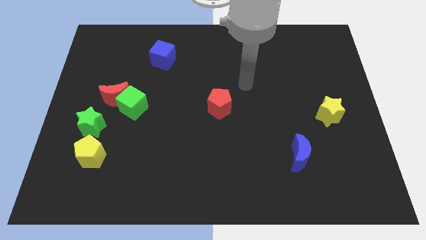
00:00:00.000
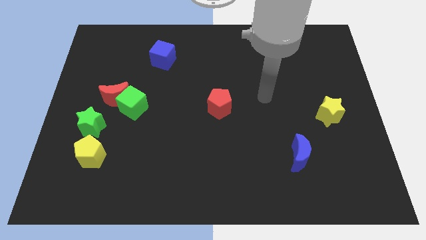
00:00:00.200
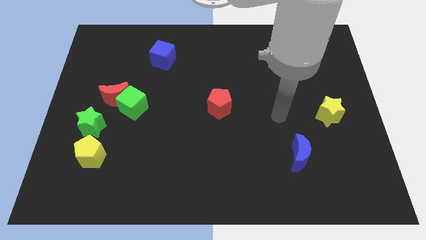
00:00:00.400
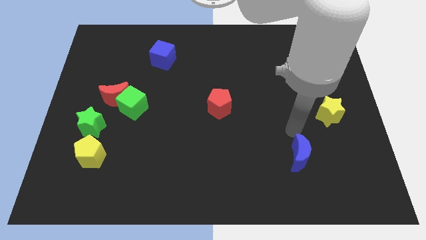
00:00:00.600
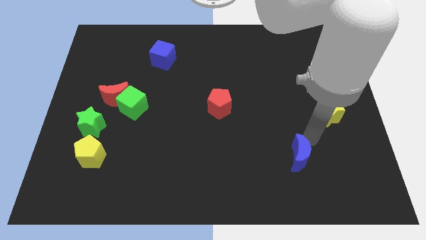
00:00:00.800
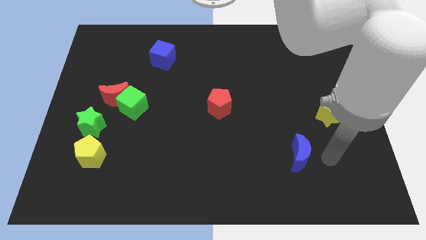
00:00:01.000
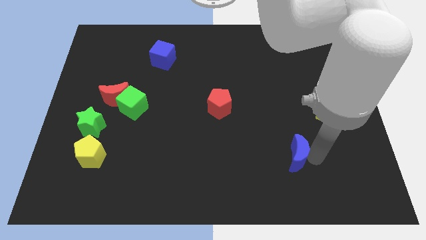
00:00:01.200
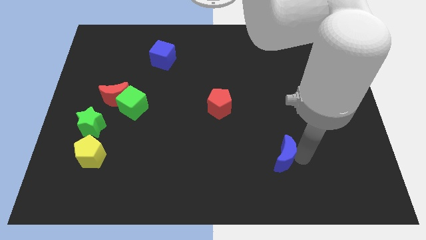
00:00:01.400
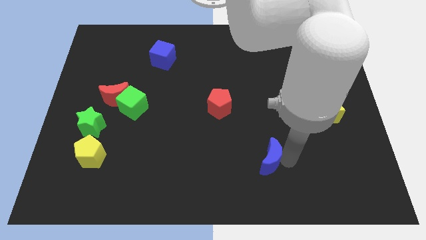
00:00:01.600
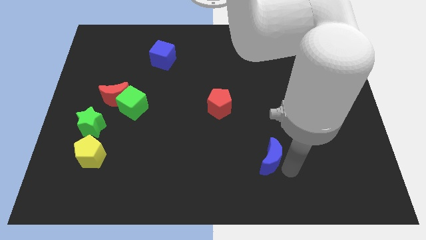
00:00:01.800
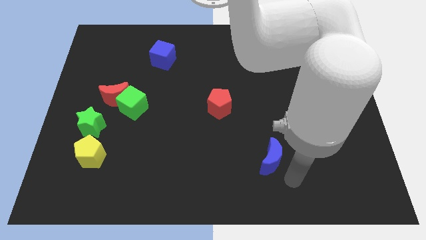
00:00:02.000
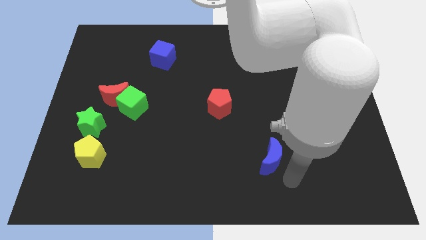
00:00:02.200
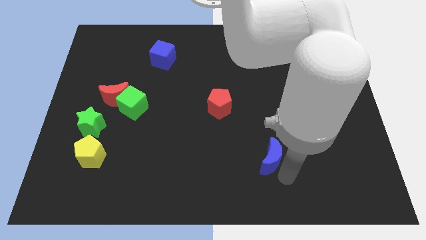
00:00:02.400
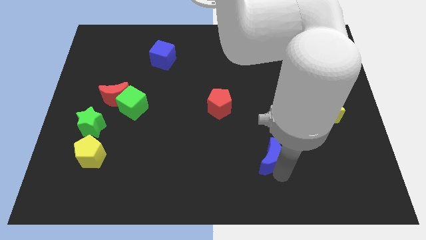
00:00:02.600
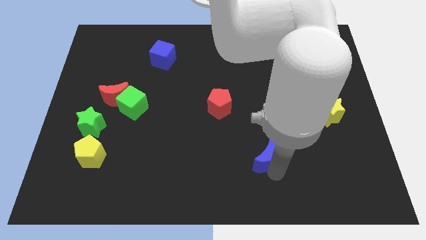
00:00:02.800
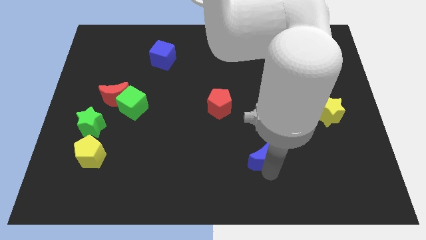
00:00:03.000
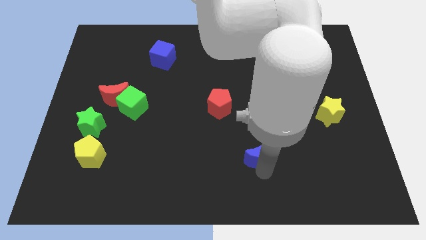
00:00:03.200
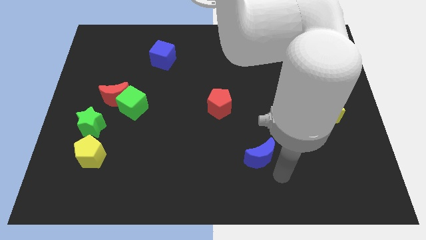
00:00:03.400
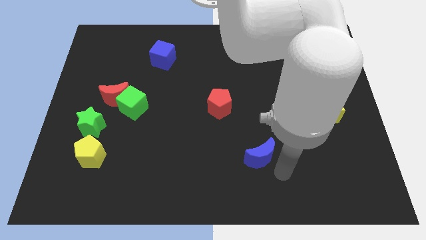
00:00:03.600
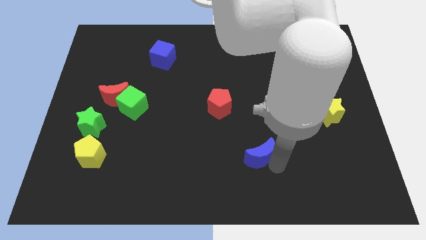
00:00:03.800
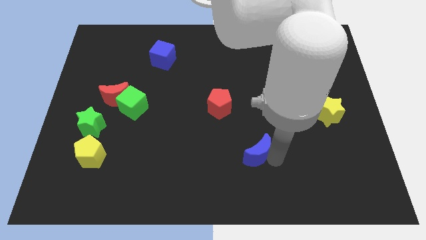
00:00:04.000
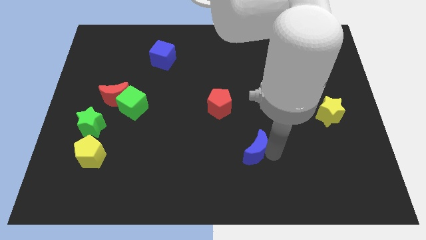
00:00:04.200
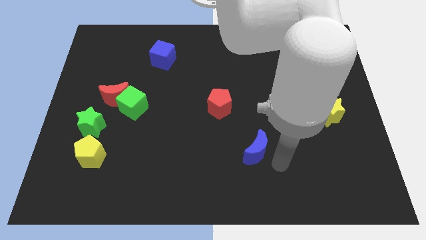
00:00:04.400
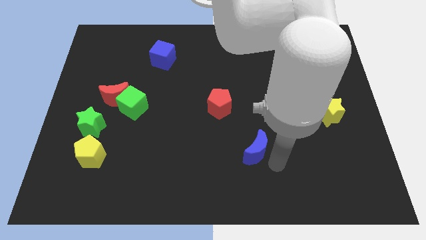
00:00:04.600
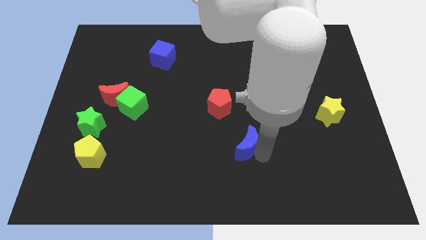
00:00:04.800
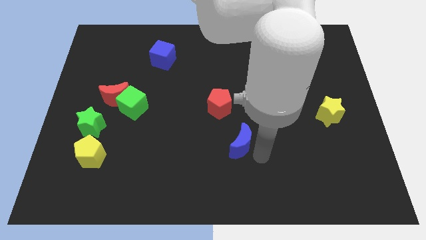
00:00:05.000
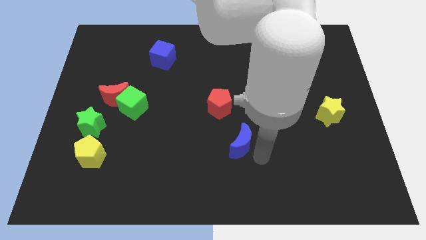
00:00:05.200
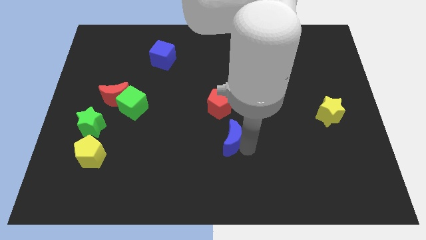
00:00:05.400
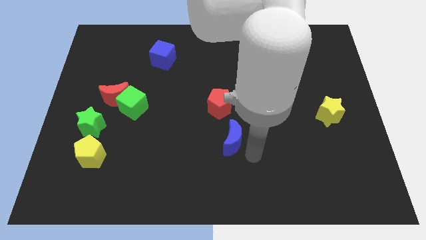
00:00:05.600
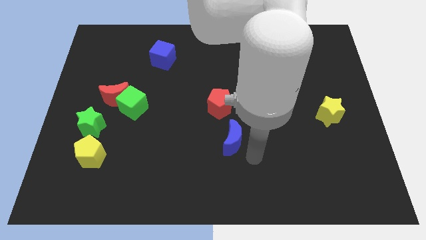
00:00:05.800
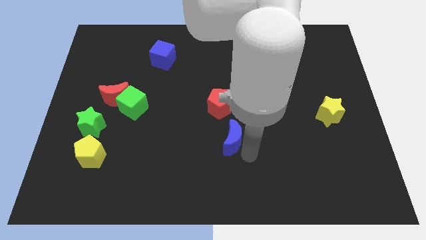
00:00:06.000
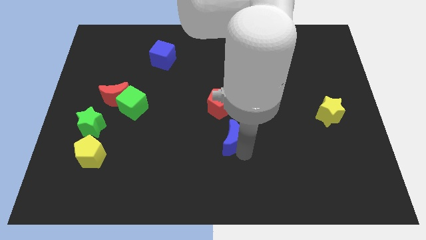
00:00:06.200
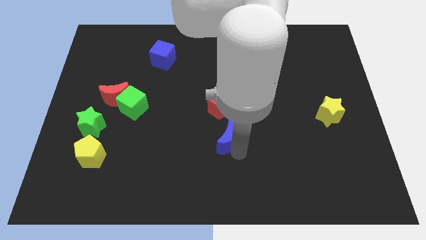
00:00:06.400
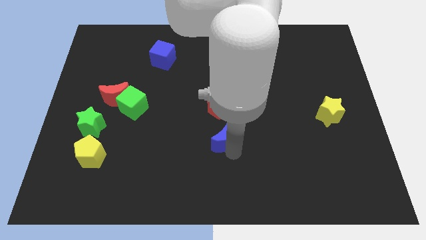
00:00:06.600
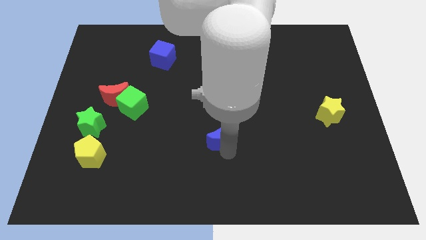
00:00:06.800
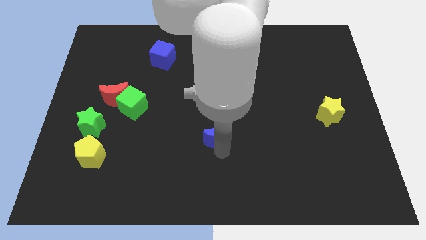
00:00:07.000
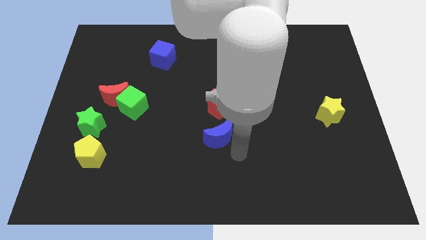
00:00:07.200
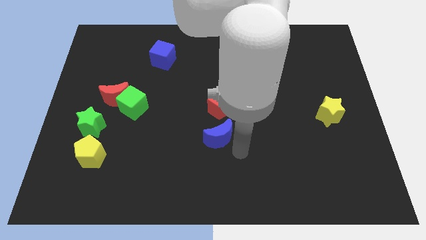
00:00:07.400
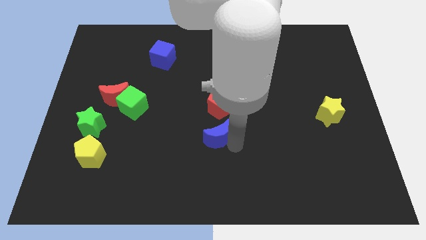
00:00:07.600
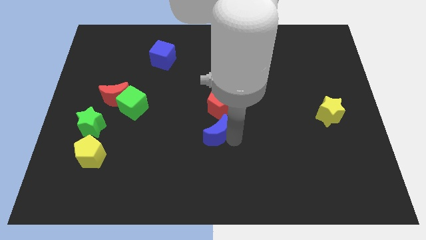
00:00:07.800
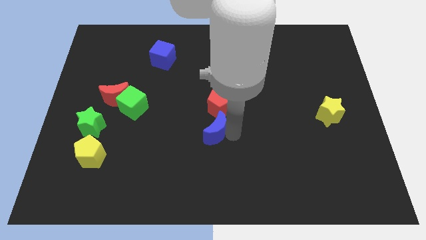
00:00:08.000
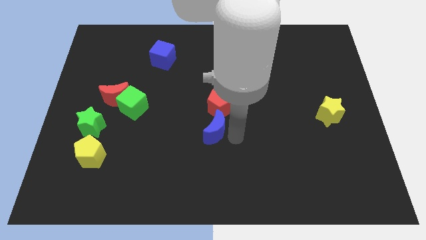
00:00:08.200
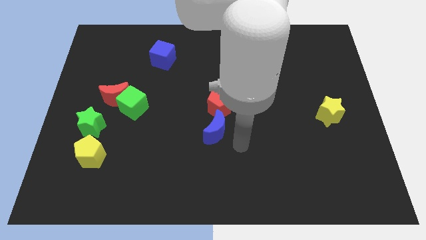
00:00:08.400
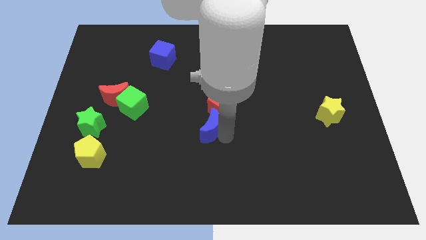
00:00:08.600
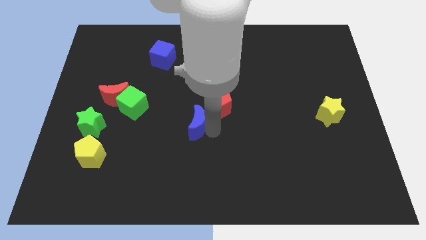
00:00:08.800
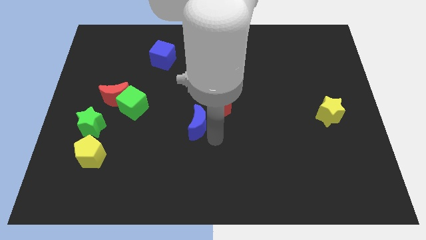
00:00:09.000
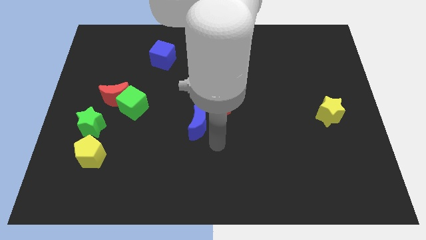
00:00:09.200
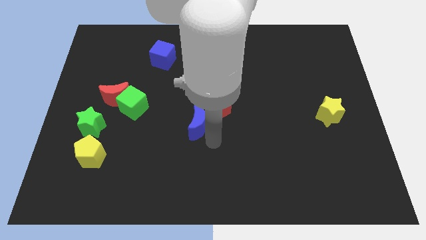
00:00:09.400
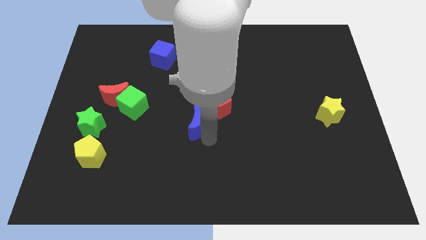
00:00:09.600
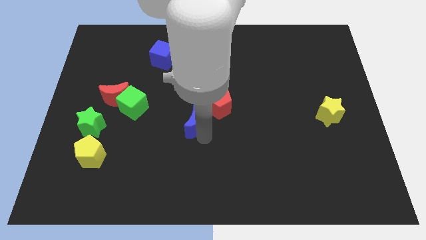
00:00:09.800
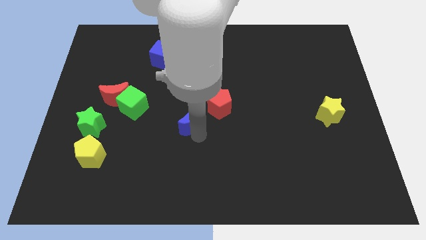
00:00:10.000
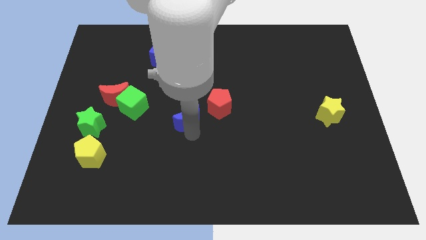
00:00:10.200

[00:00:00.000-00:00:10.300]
move the blue moon to the right side of the green cube

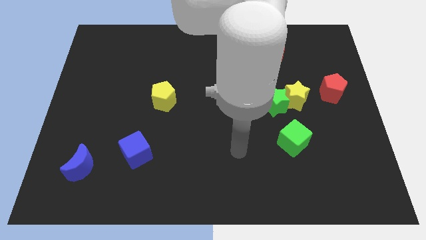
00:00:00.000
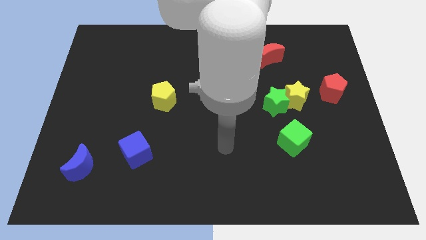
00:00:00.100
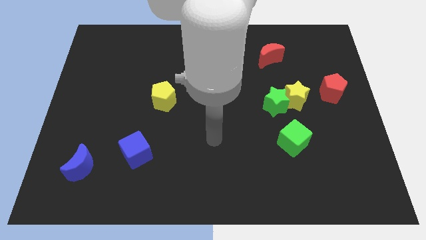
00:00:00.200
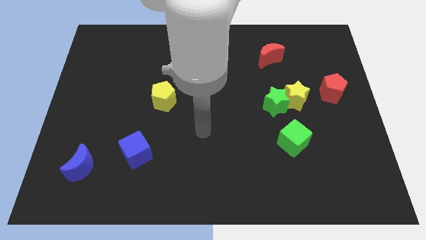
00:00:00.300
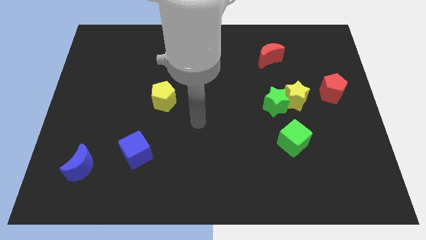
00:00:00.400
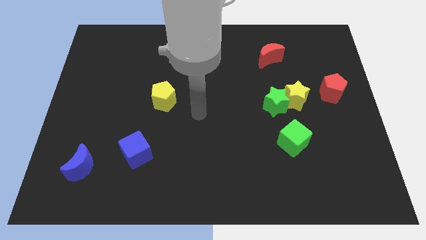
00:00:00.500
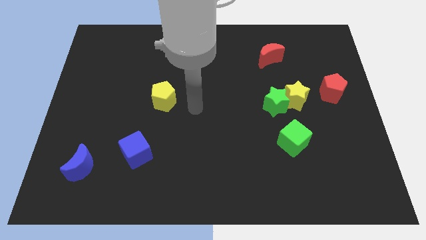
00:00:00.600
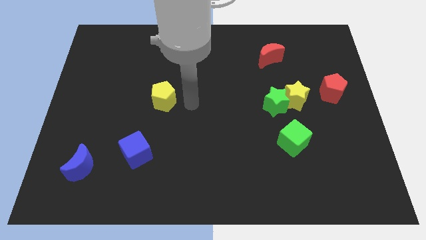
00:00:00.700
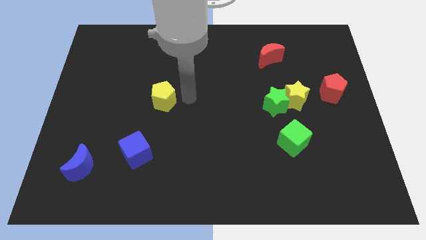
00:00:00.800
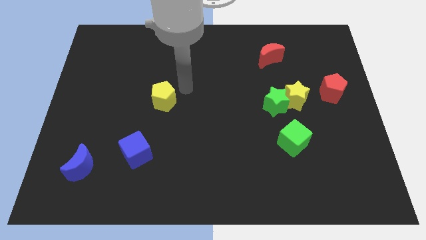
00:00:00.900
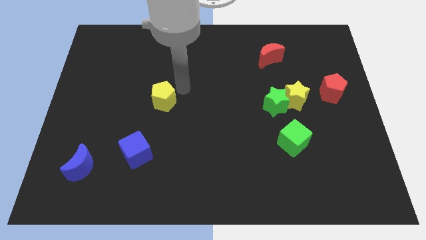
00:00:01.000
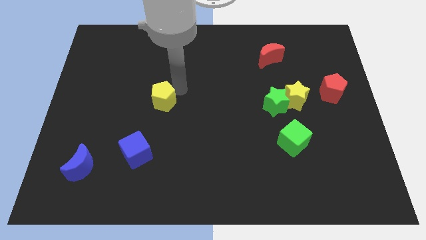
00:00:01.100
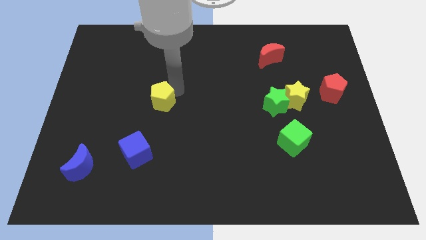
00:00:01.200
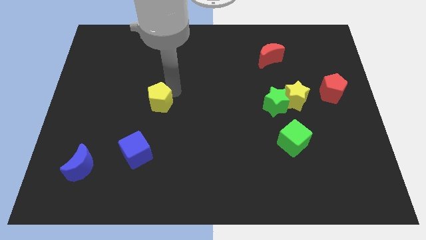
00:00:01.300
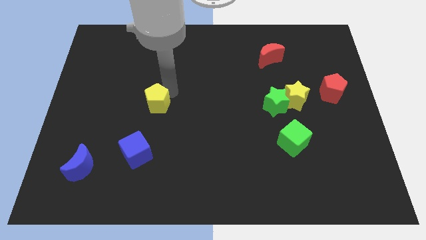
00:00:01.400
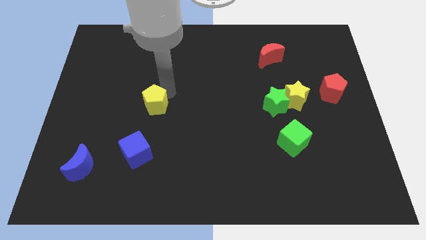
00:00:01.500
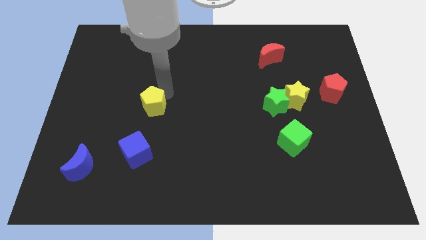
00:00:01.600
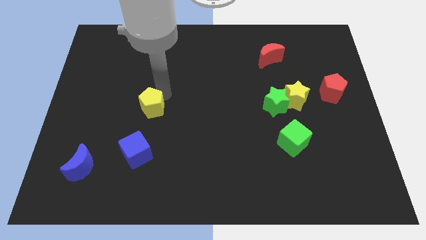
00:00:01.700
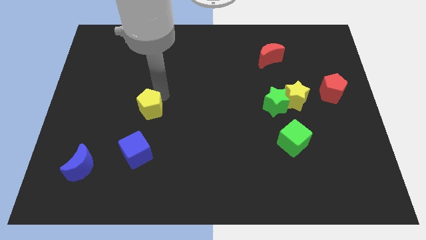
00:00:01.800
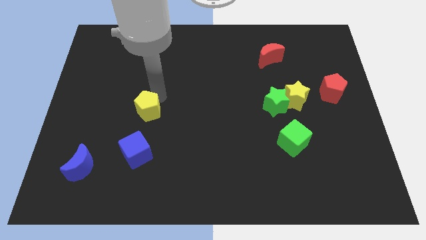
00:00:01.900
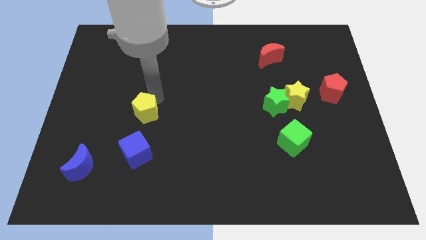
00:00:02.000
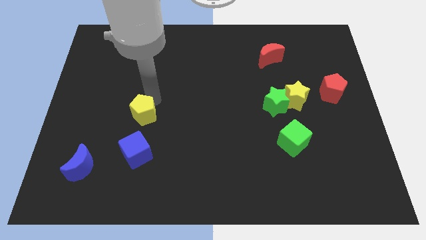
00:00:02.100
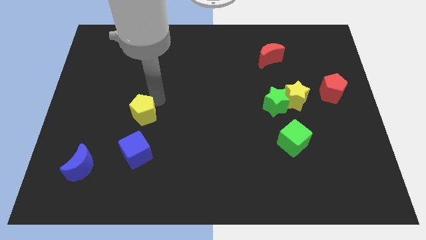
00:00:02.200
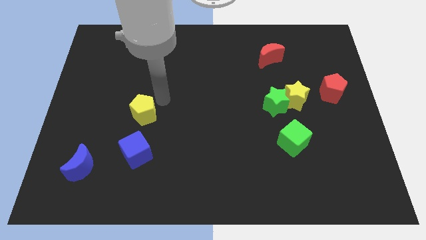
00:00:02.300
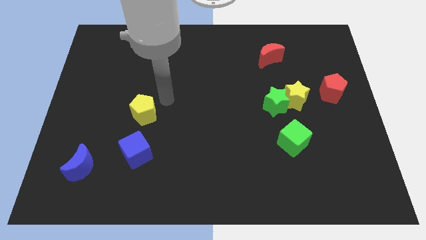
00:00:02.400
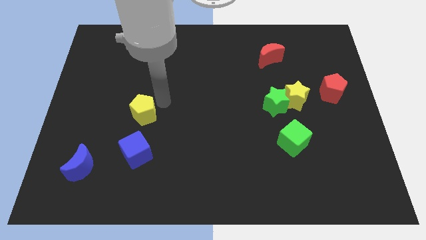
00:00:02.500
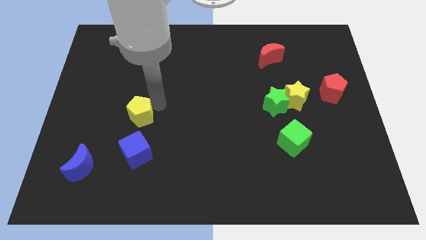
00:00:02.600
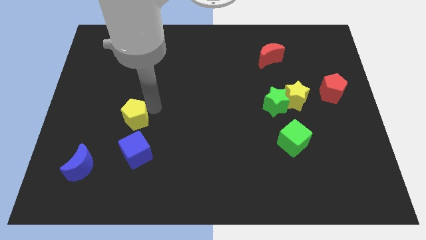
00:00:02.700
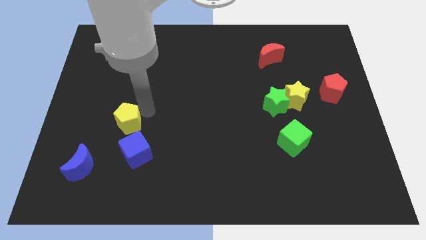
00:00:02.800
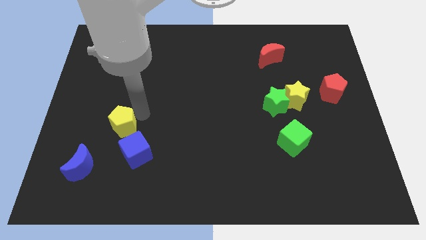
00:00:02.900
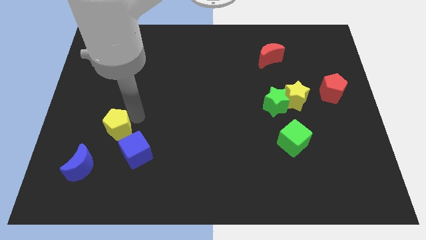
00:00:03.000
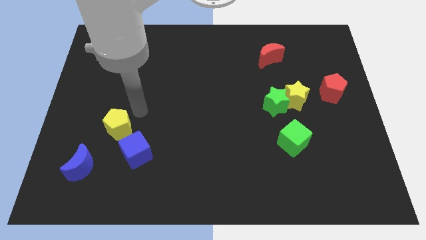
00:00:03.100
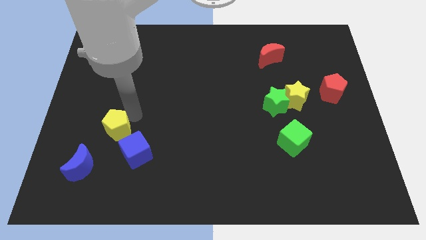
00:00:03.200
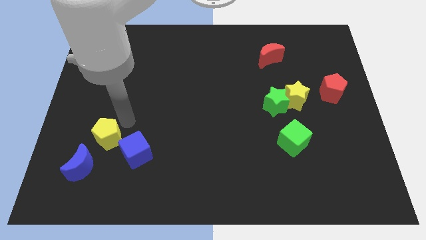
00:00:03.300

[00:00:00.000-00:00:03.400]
put the yellow pentagon left of the blue cube
